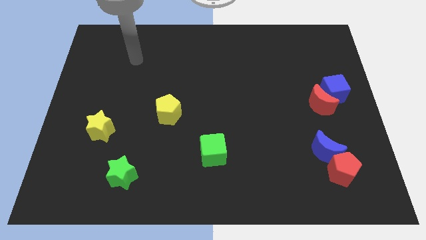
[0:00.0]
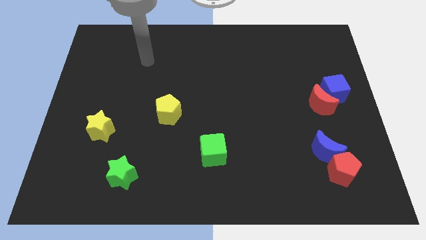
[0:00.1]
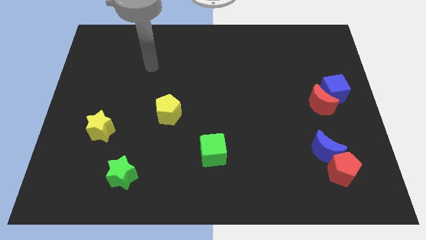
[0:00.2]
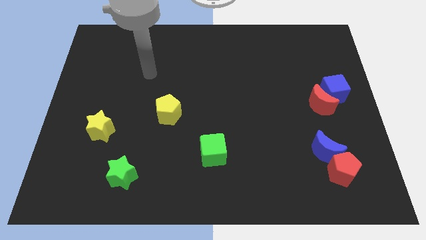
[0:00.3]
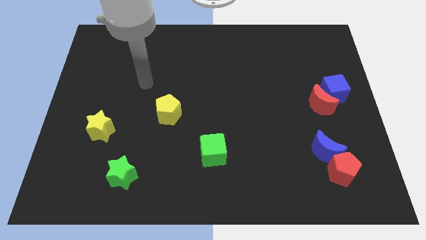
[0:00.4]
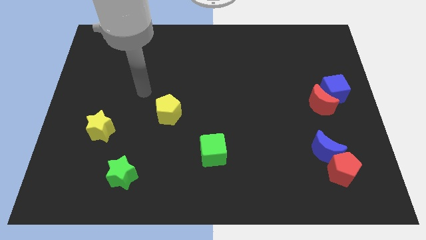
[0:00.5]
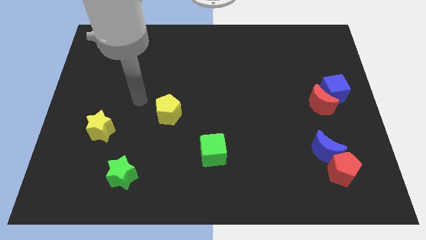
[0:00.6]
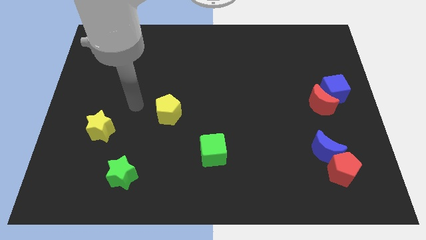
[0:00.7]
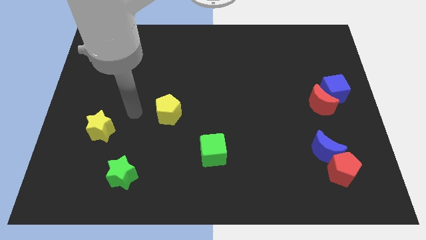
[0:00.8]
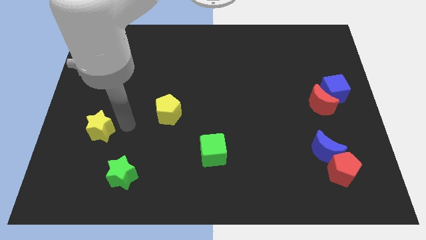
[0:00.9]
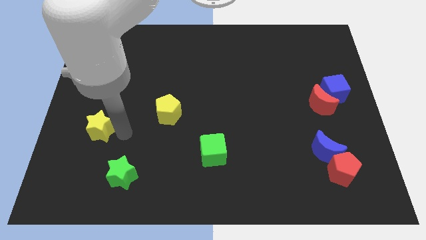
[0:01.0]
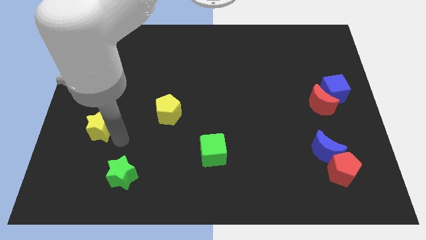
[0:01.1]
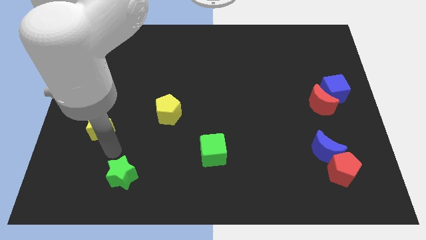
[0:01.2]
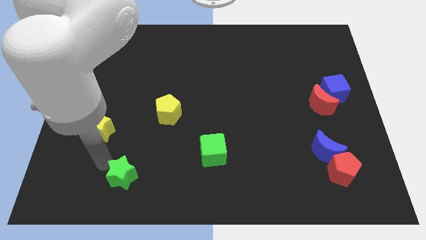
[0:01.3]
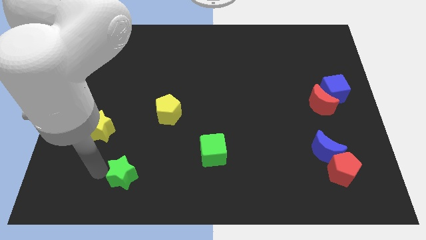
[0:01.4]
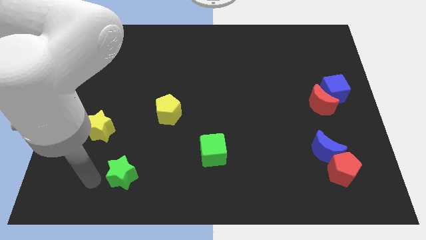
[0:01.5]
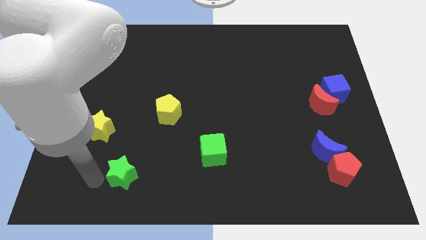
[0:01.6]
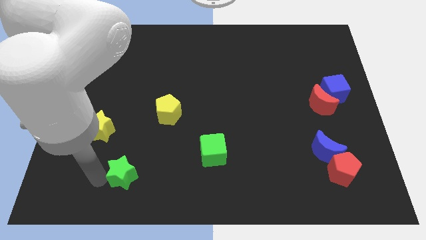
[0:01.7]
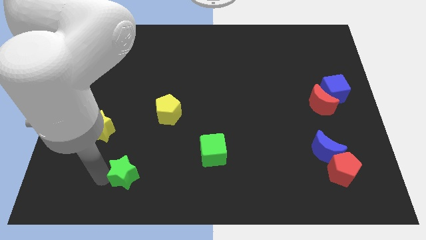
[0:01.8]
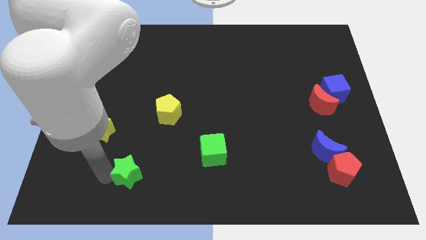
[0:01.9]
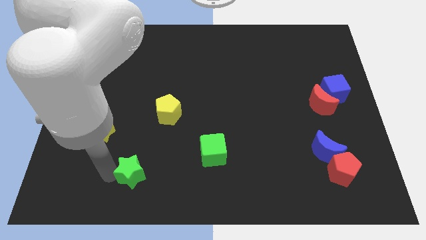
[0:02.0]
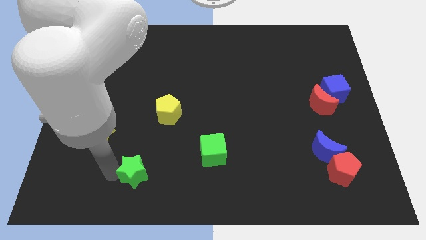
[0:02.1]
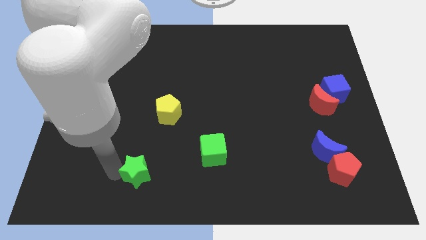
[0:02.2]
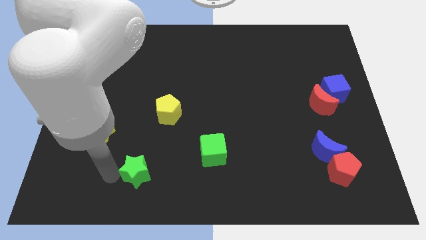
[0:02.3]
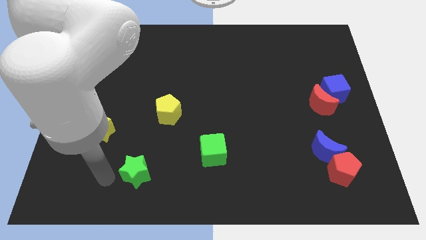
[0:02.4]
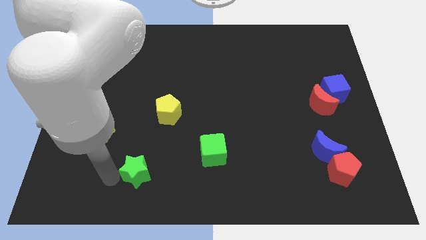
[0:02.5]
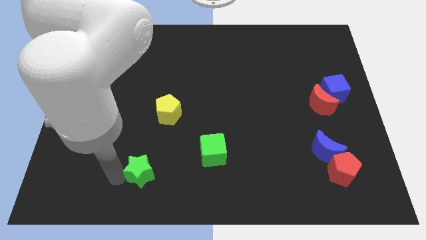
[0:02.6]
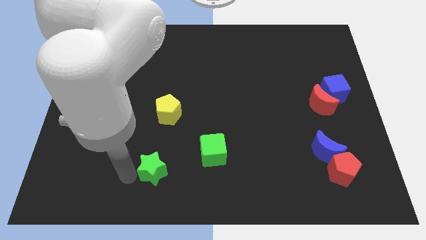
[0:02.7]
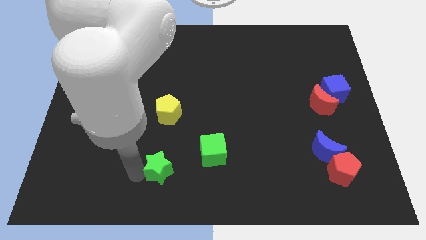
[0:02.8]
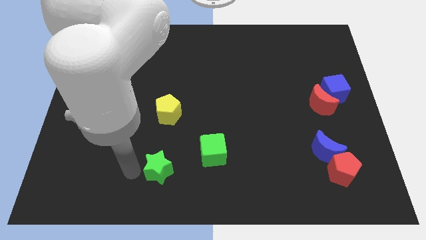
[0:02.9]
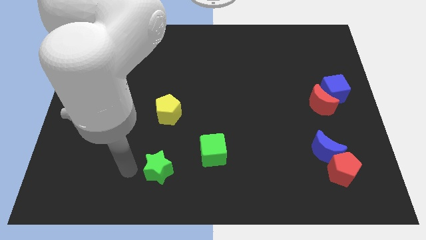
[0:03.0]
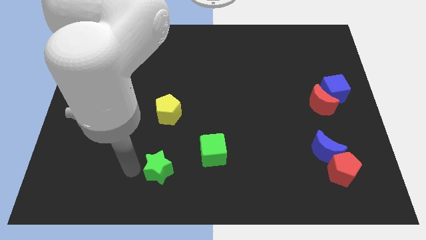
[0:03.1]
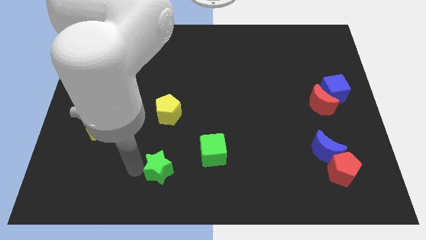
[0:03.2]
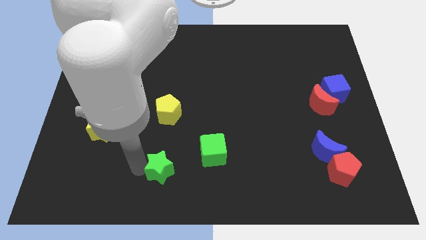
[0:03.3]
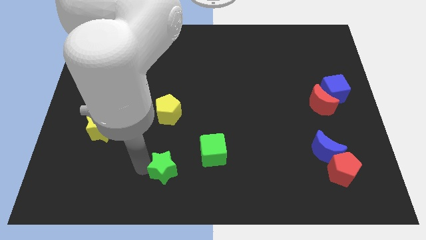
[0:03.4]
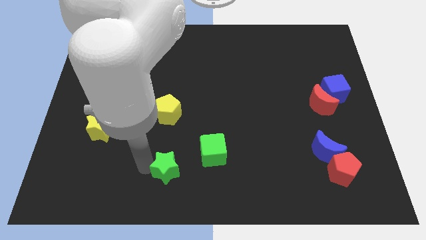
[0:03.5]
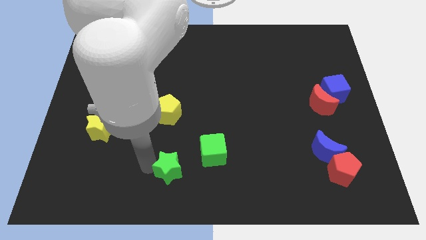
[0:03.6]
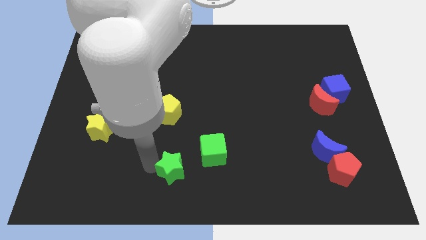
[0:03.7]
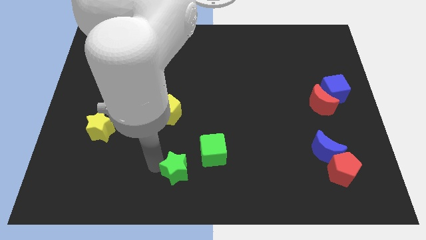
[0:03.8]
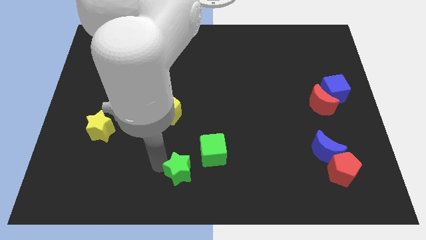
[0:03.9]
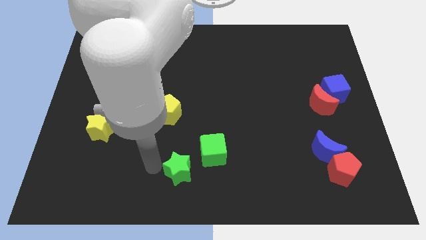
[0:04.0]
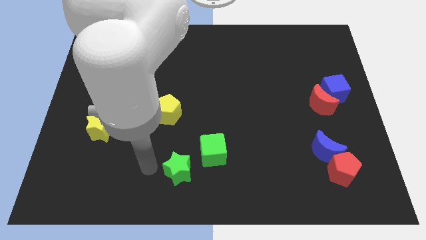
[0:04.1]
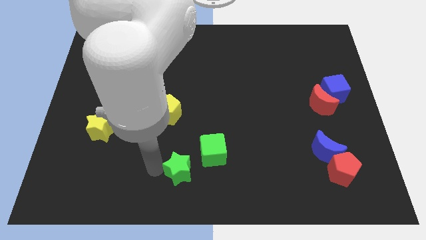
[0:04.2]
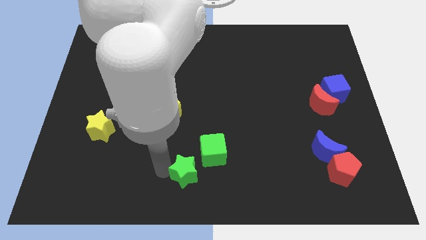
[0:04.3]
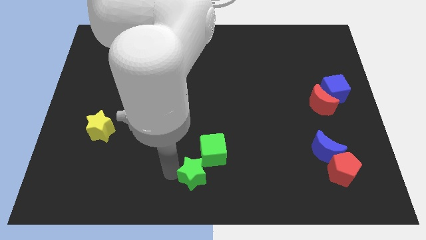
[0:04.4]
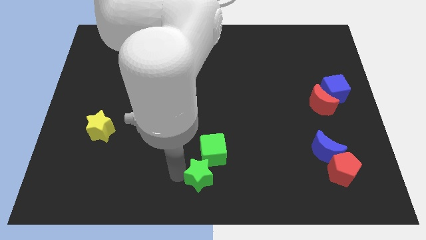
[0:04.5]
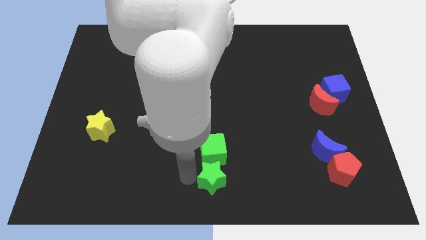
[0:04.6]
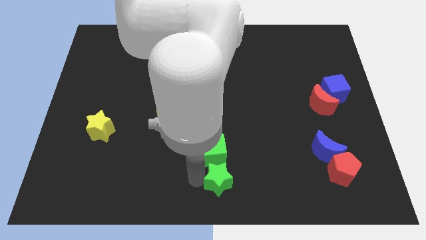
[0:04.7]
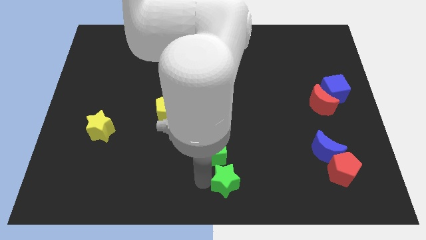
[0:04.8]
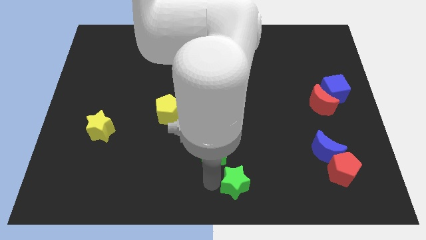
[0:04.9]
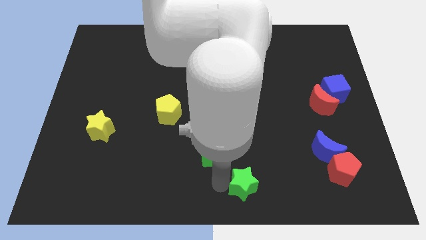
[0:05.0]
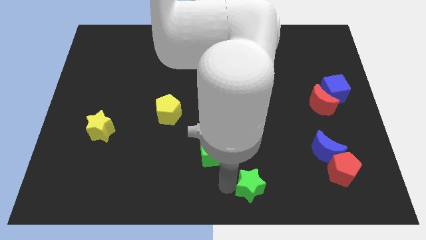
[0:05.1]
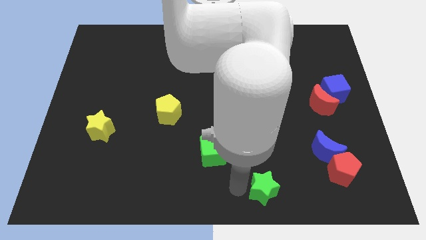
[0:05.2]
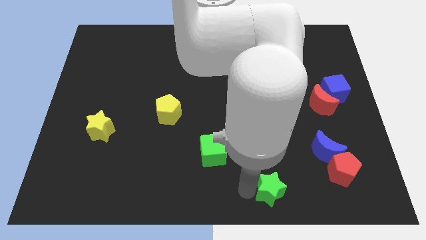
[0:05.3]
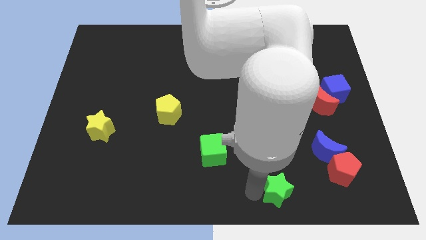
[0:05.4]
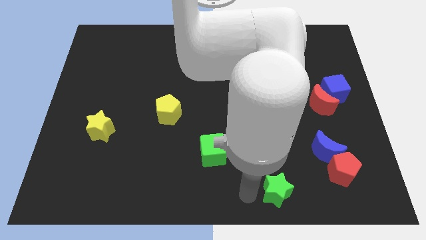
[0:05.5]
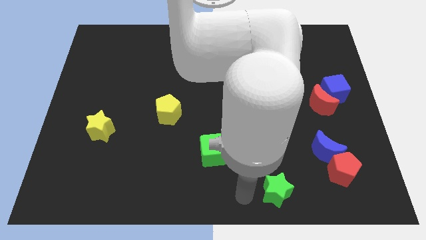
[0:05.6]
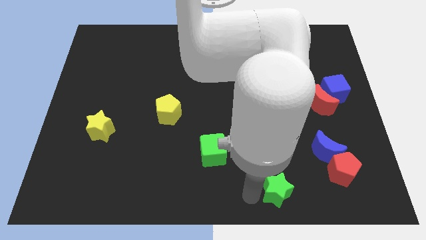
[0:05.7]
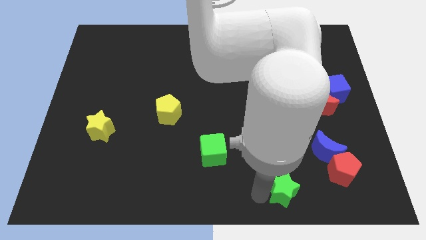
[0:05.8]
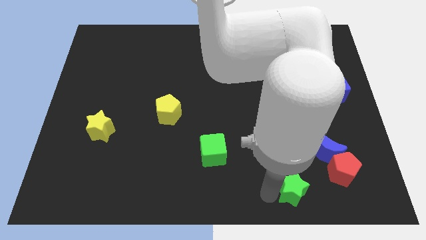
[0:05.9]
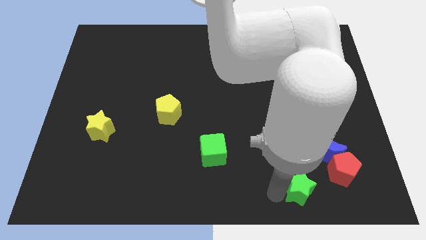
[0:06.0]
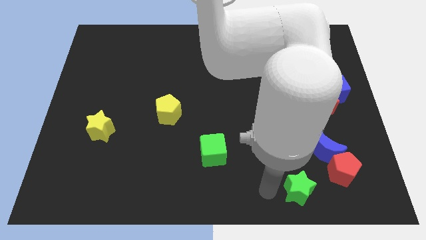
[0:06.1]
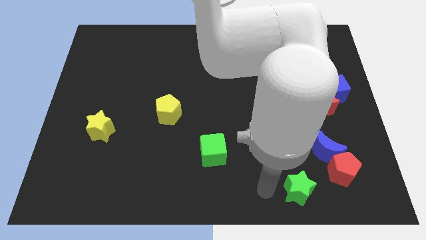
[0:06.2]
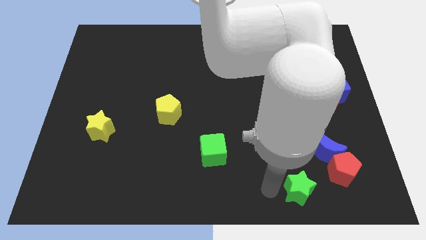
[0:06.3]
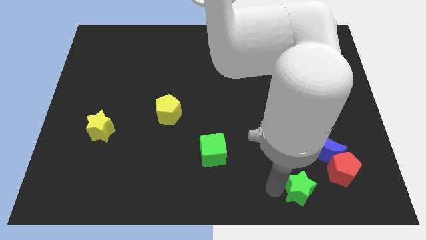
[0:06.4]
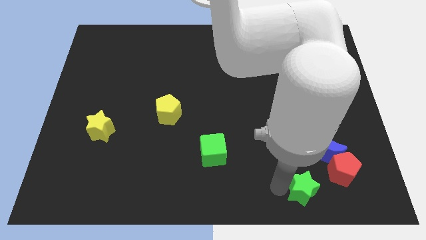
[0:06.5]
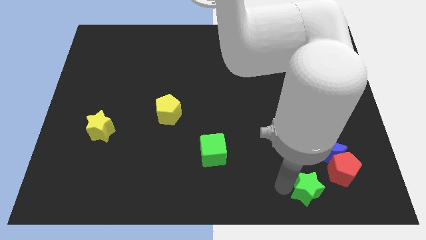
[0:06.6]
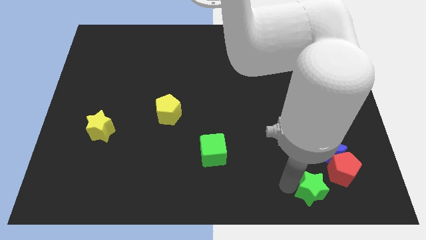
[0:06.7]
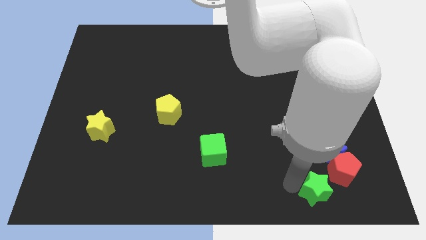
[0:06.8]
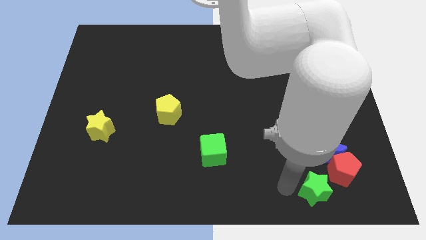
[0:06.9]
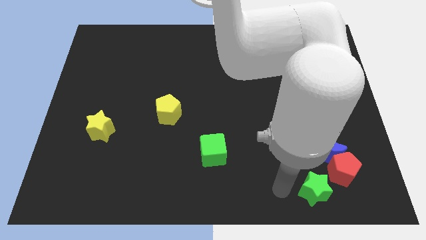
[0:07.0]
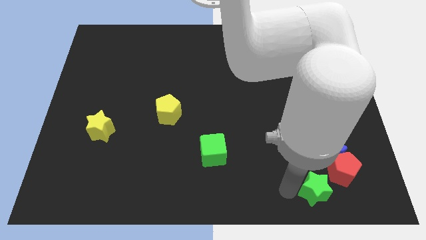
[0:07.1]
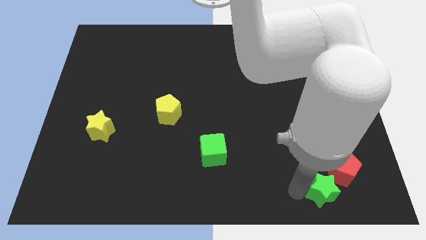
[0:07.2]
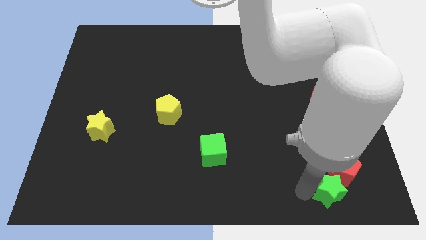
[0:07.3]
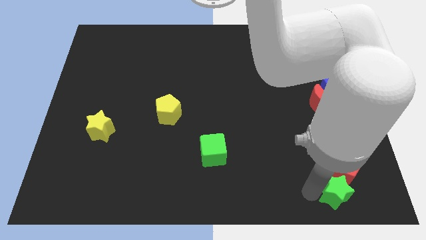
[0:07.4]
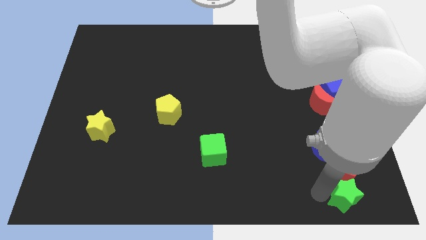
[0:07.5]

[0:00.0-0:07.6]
slide the green star to the bottom right
